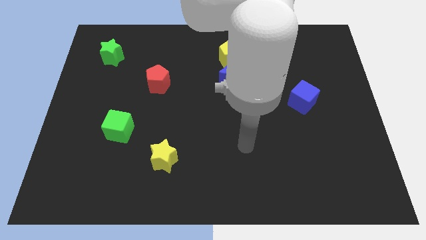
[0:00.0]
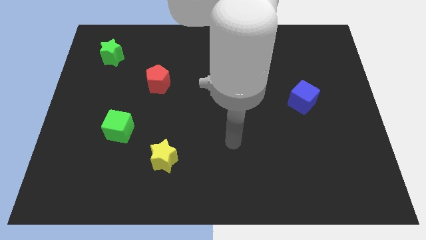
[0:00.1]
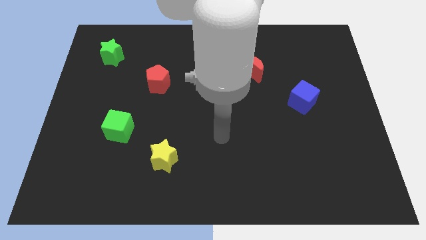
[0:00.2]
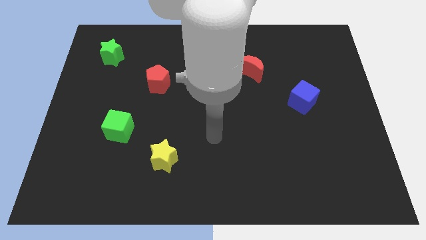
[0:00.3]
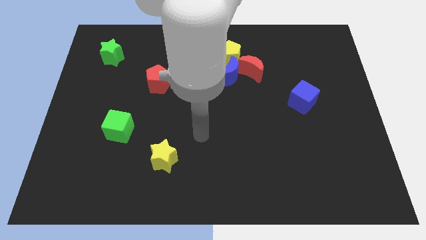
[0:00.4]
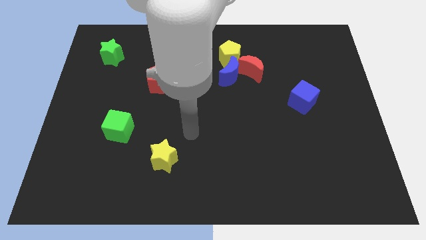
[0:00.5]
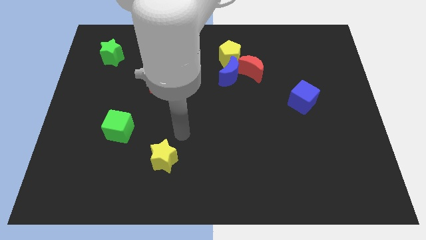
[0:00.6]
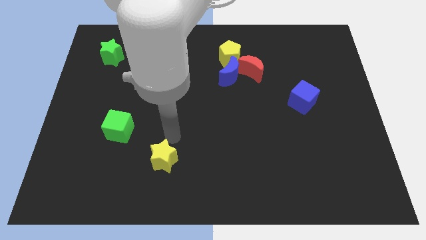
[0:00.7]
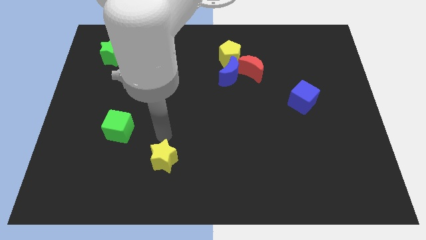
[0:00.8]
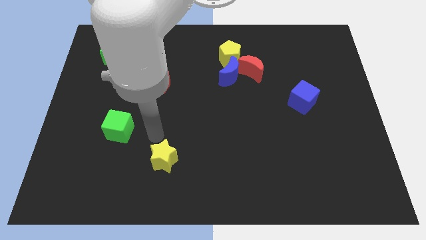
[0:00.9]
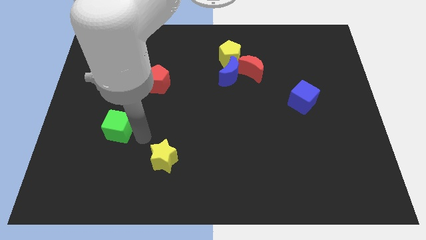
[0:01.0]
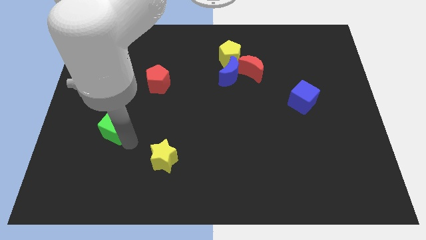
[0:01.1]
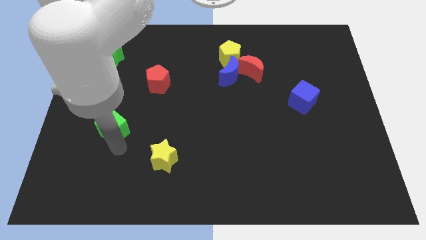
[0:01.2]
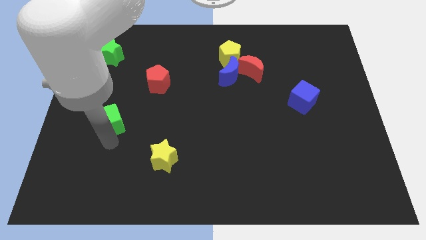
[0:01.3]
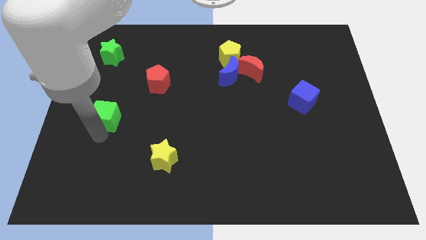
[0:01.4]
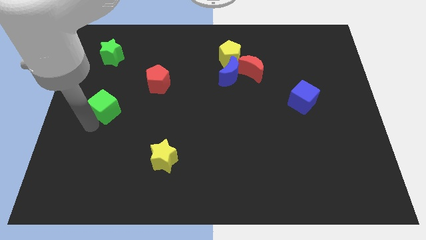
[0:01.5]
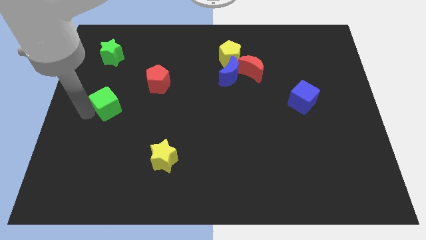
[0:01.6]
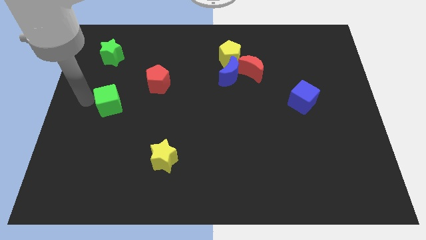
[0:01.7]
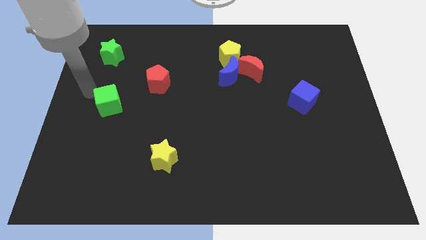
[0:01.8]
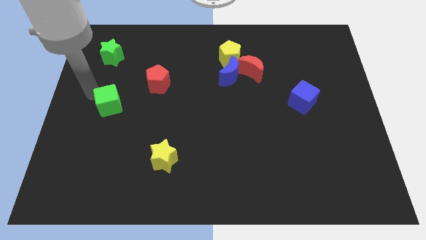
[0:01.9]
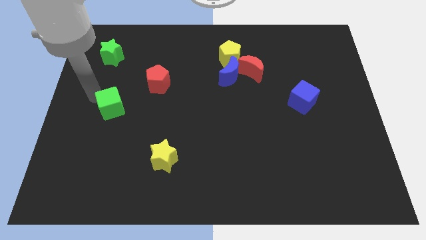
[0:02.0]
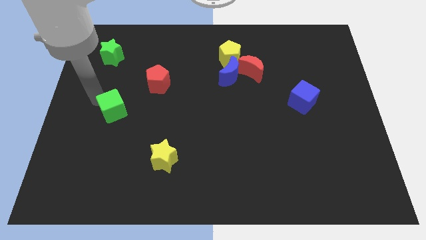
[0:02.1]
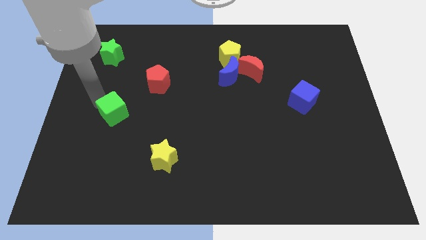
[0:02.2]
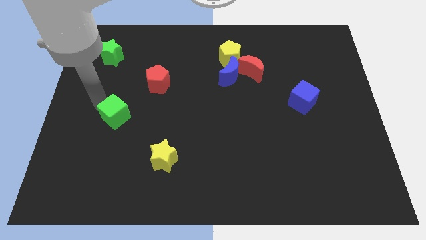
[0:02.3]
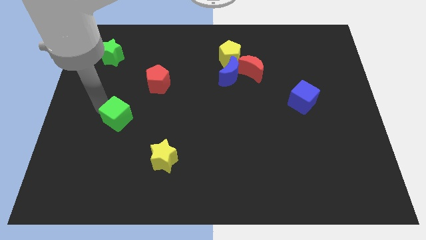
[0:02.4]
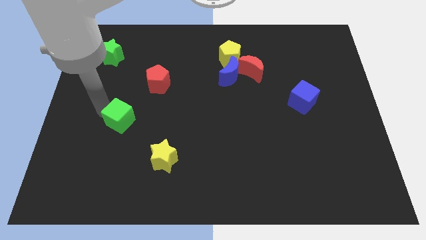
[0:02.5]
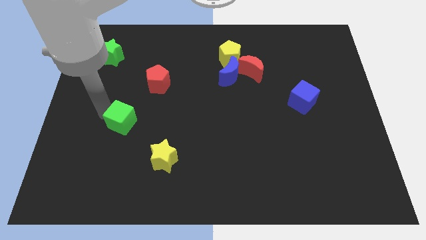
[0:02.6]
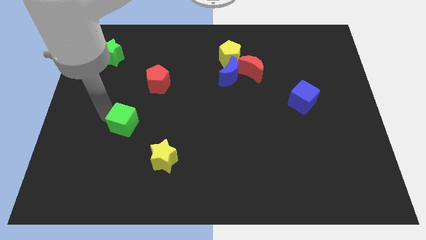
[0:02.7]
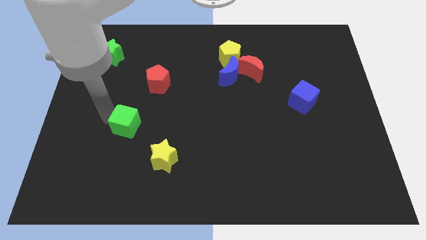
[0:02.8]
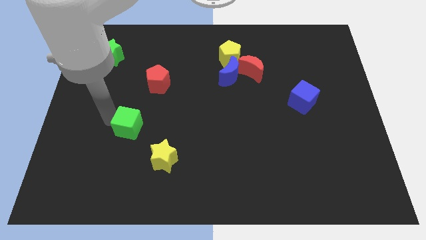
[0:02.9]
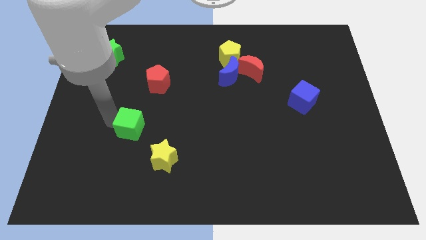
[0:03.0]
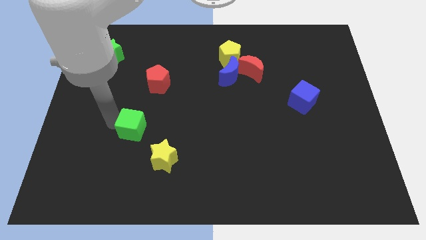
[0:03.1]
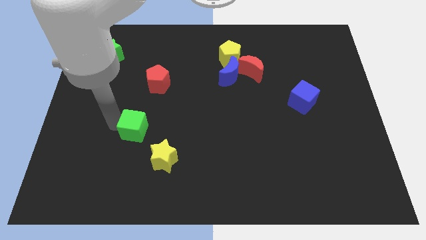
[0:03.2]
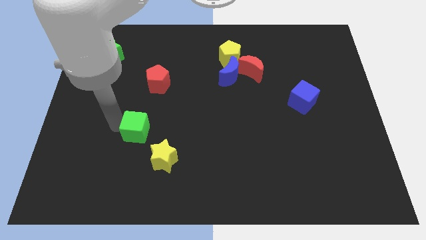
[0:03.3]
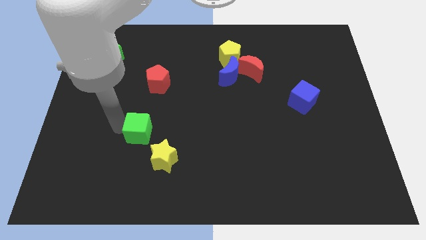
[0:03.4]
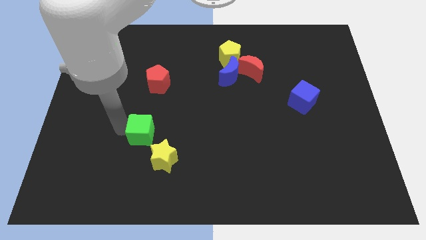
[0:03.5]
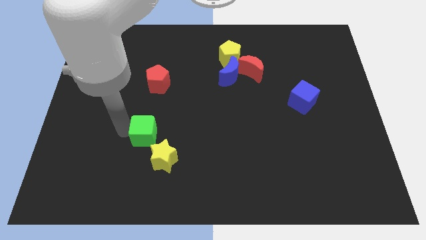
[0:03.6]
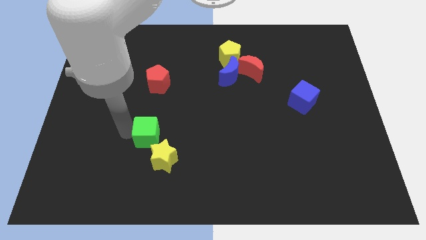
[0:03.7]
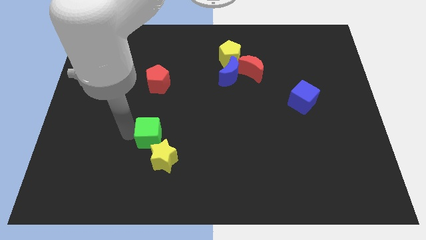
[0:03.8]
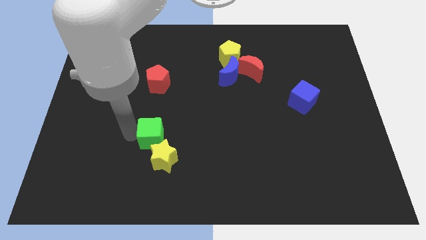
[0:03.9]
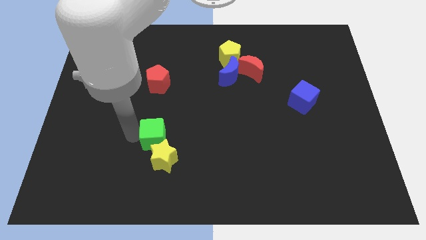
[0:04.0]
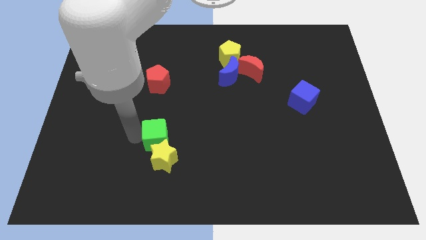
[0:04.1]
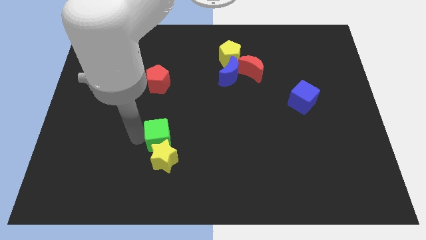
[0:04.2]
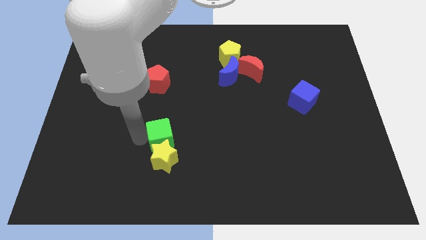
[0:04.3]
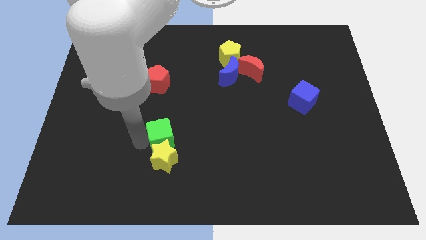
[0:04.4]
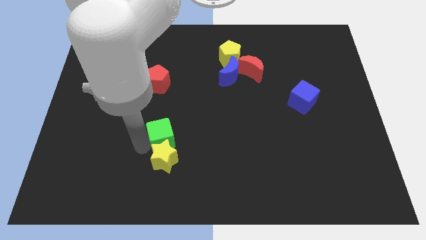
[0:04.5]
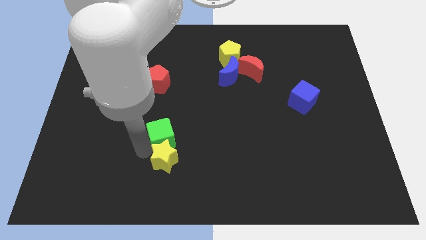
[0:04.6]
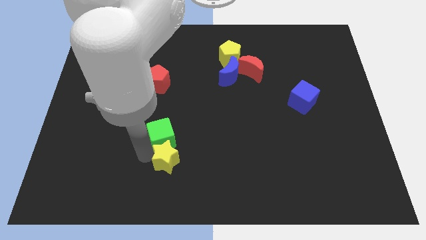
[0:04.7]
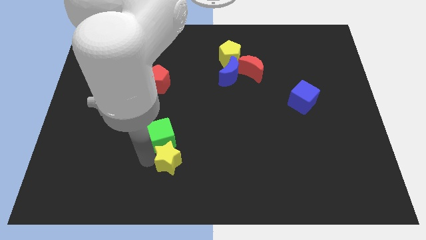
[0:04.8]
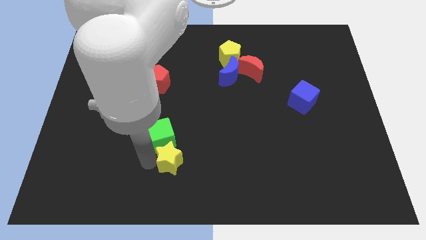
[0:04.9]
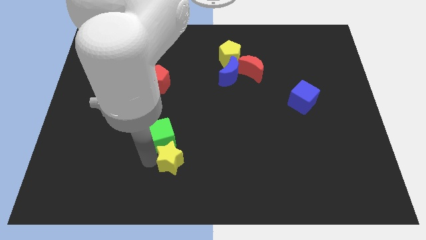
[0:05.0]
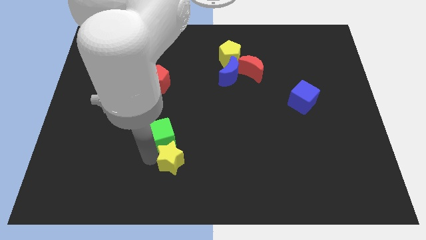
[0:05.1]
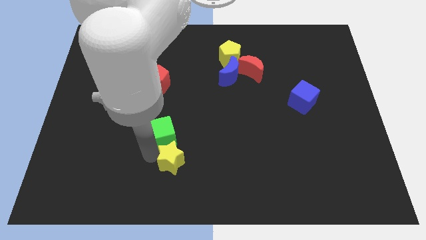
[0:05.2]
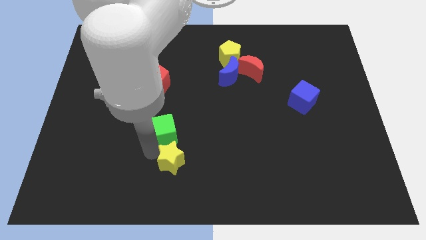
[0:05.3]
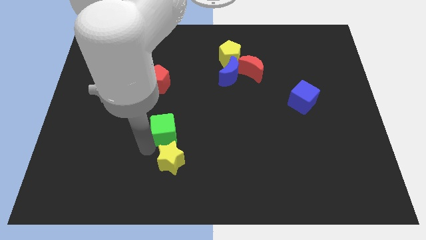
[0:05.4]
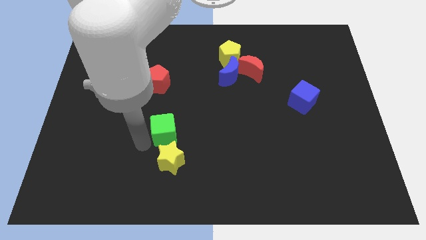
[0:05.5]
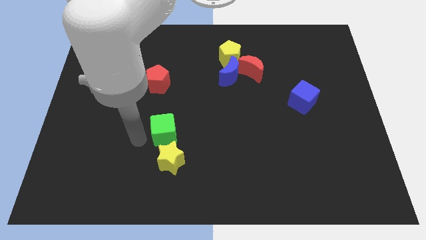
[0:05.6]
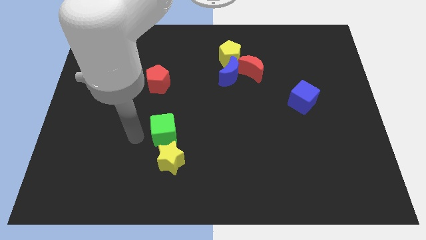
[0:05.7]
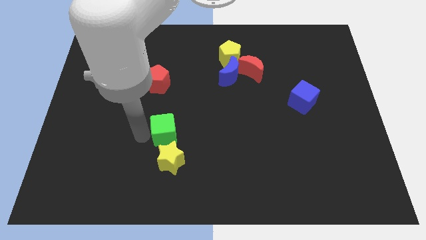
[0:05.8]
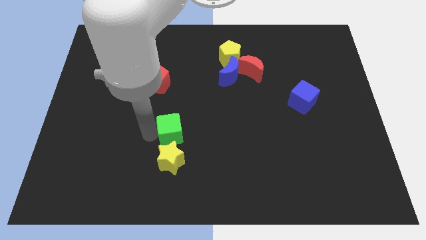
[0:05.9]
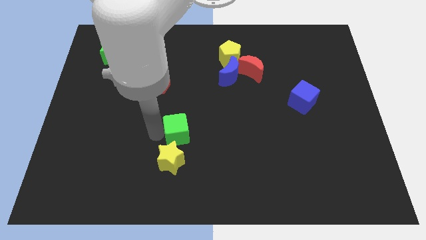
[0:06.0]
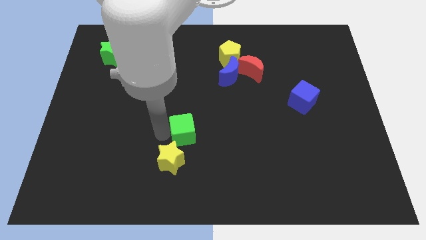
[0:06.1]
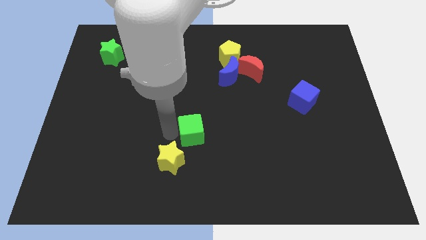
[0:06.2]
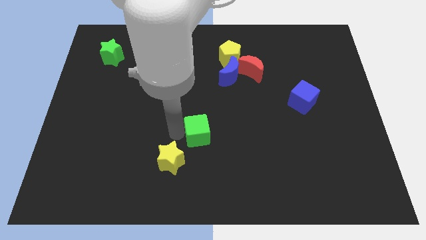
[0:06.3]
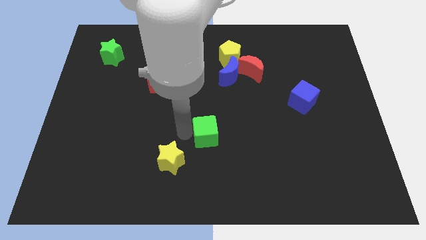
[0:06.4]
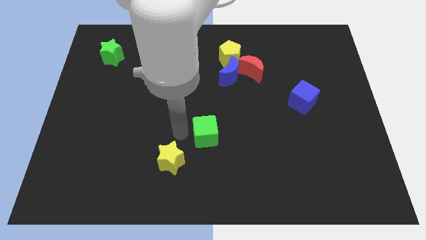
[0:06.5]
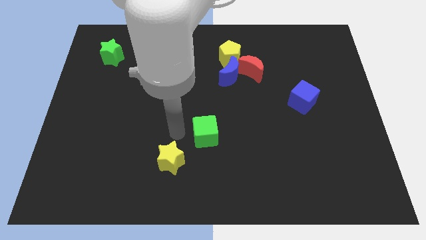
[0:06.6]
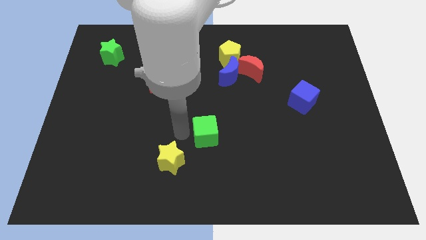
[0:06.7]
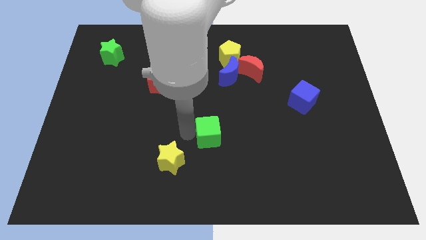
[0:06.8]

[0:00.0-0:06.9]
push the green cube right

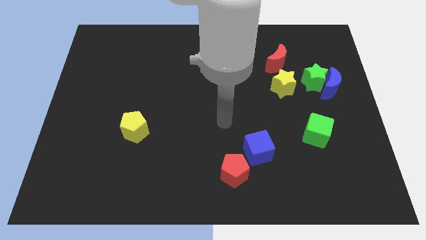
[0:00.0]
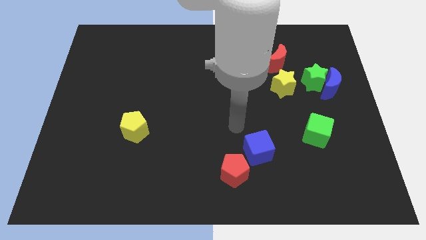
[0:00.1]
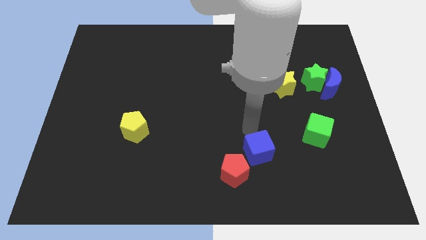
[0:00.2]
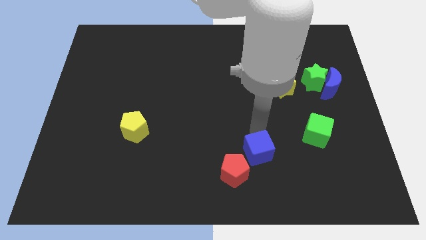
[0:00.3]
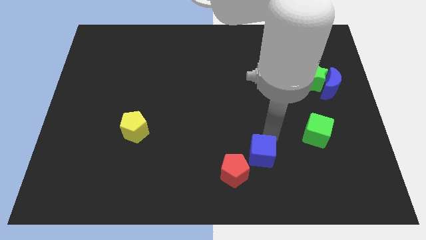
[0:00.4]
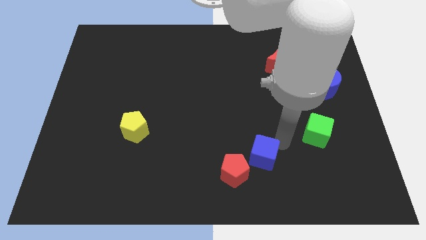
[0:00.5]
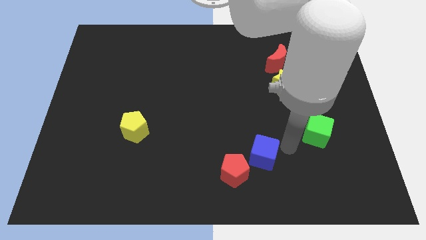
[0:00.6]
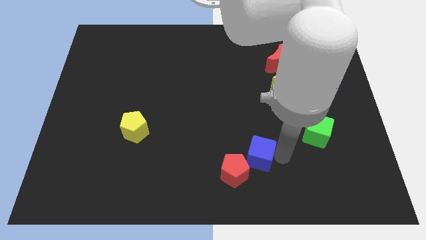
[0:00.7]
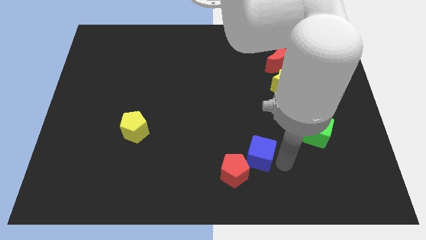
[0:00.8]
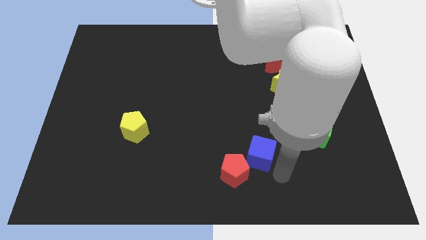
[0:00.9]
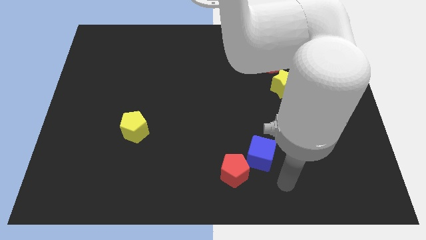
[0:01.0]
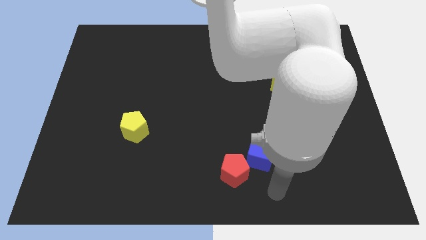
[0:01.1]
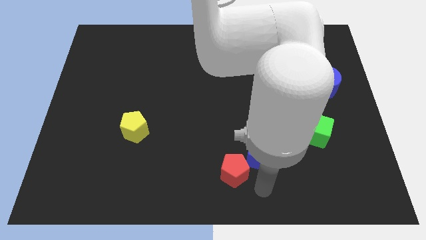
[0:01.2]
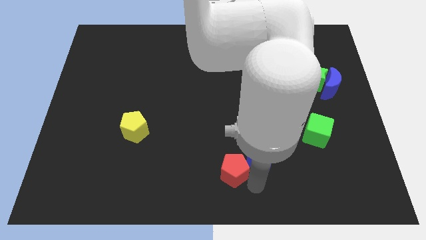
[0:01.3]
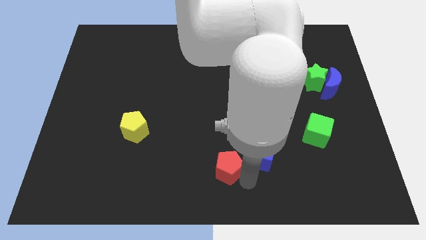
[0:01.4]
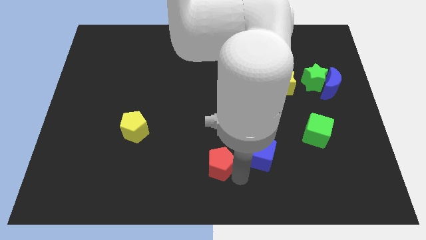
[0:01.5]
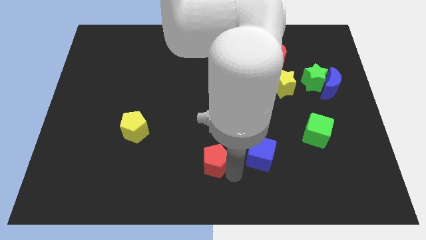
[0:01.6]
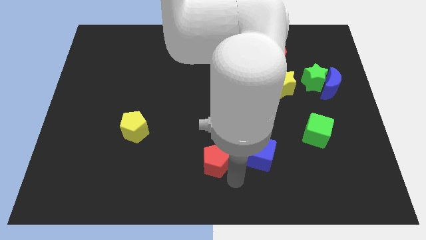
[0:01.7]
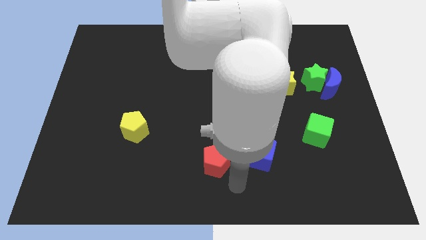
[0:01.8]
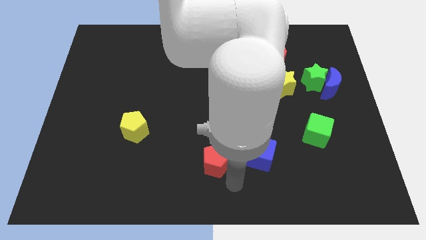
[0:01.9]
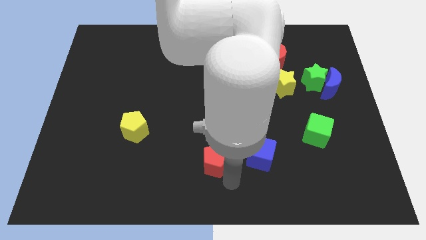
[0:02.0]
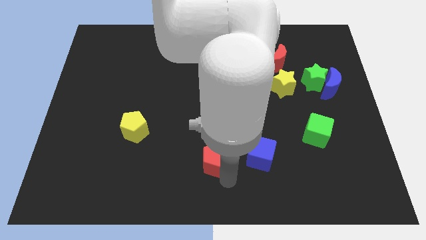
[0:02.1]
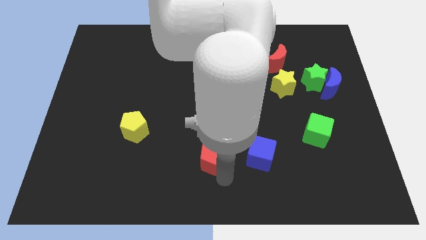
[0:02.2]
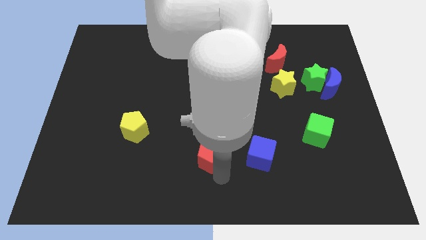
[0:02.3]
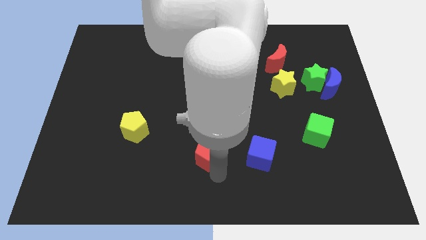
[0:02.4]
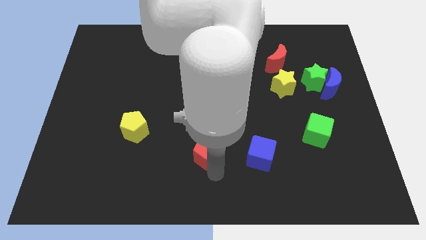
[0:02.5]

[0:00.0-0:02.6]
slightly move the red pentagon up and to the left diagonally
